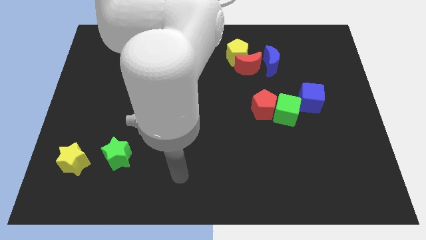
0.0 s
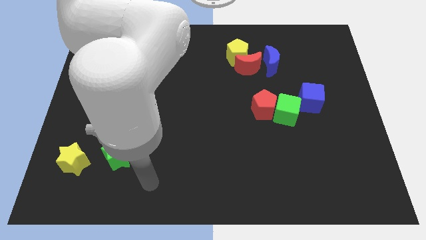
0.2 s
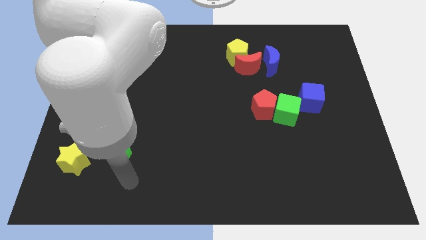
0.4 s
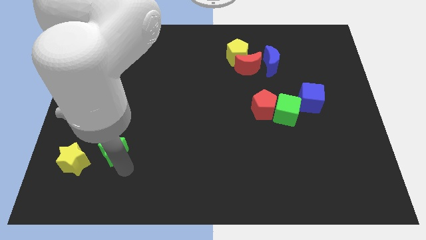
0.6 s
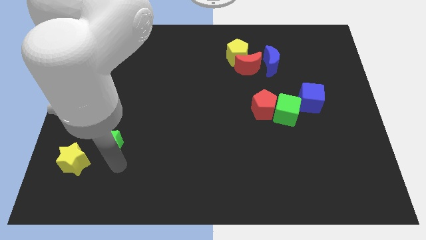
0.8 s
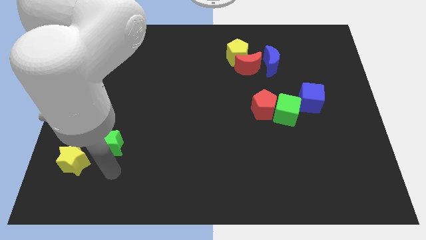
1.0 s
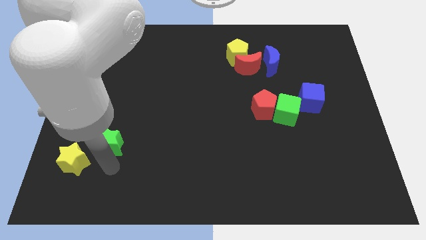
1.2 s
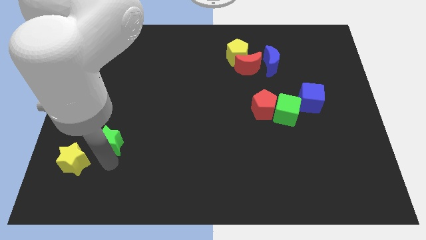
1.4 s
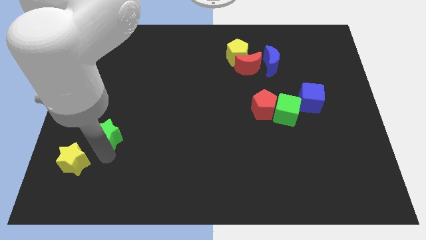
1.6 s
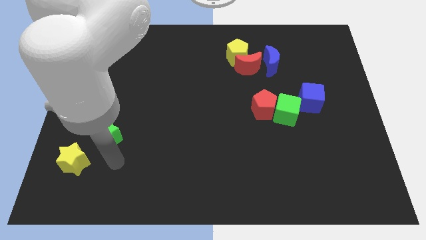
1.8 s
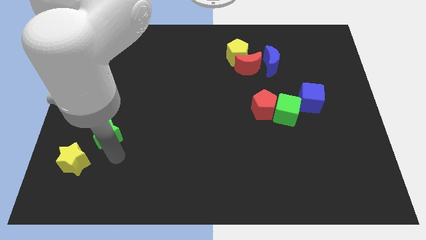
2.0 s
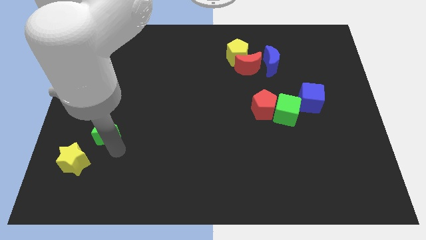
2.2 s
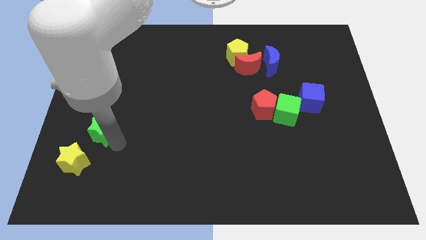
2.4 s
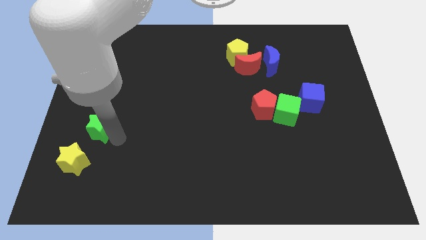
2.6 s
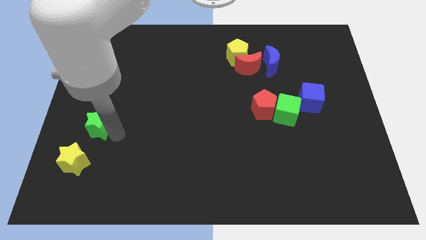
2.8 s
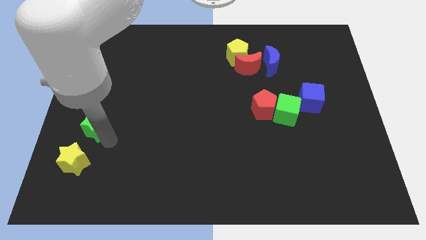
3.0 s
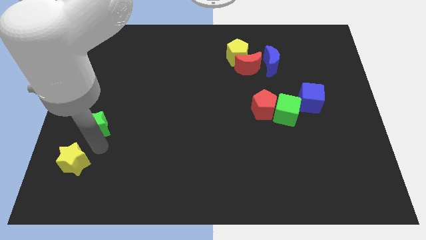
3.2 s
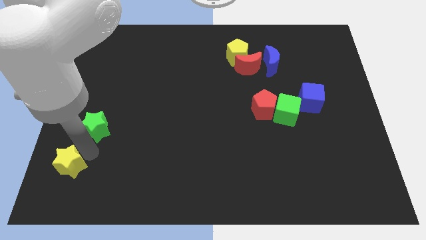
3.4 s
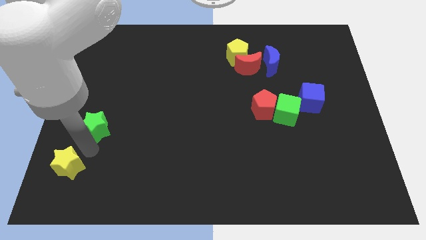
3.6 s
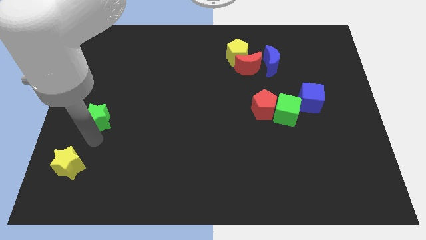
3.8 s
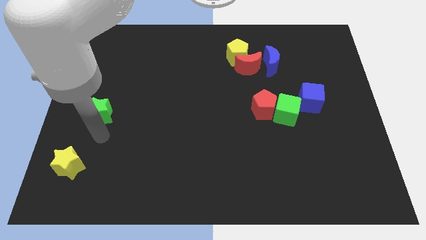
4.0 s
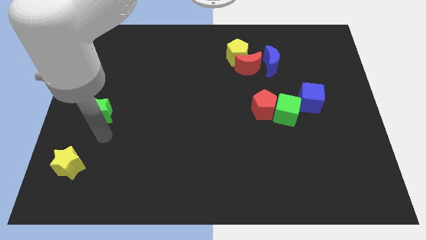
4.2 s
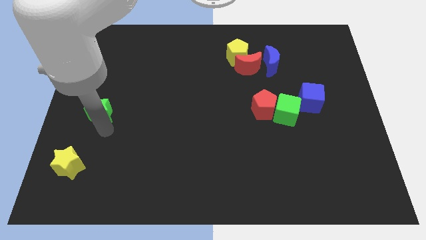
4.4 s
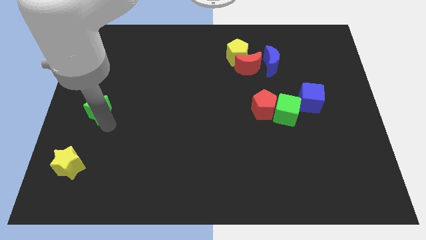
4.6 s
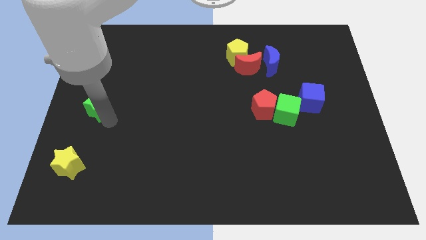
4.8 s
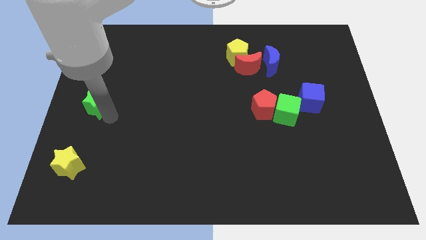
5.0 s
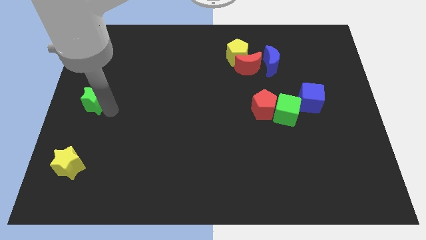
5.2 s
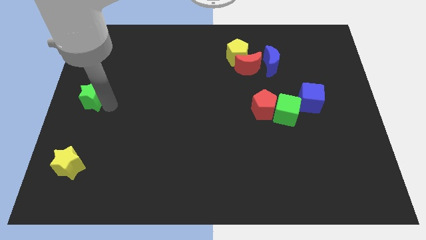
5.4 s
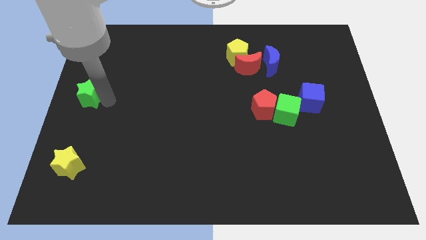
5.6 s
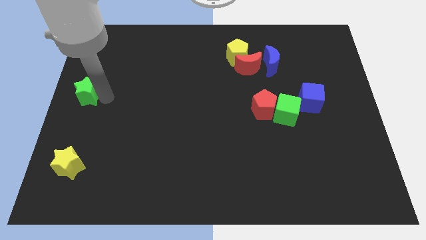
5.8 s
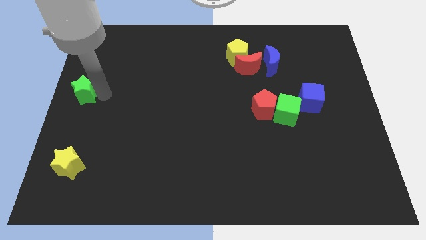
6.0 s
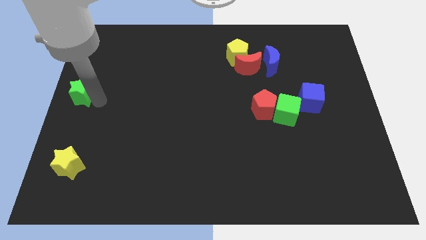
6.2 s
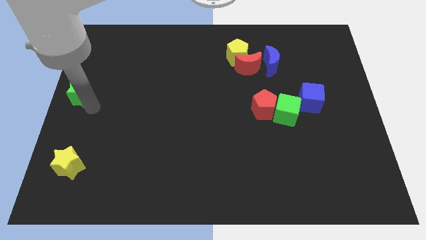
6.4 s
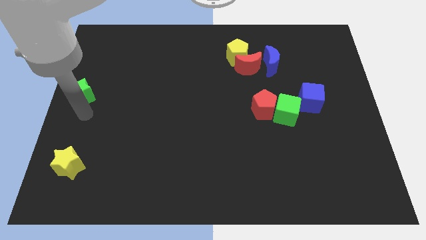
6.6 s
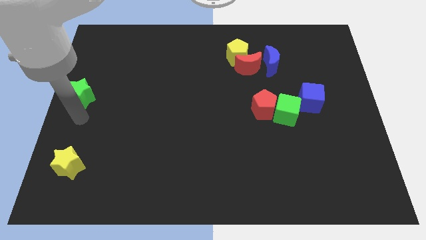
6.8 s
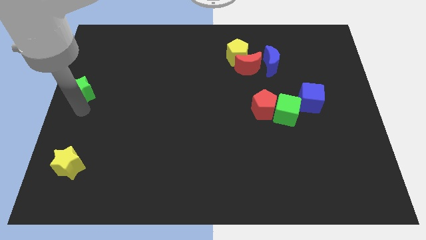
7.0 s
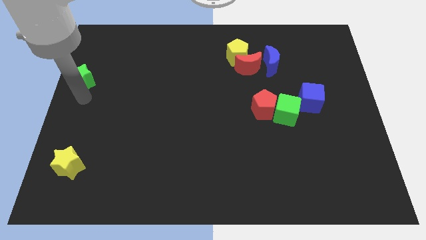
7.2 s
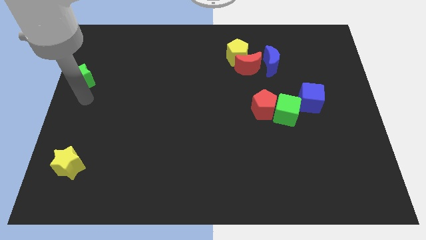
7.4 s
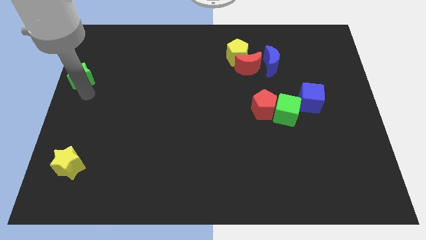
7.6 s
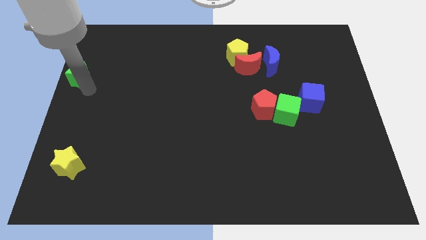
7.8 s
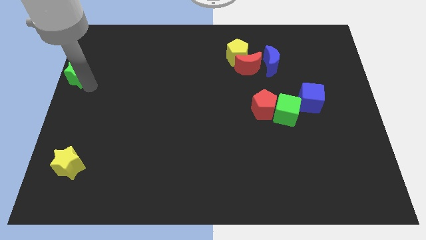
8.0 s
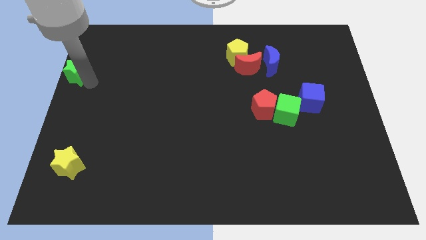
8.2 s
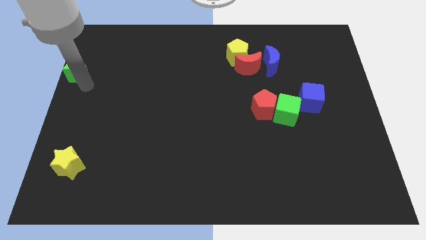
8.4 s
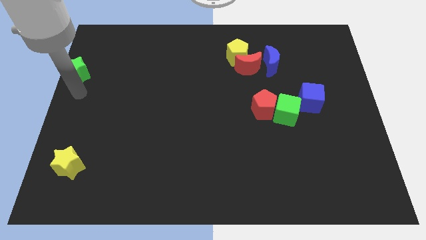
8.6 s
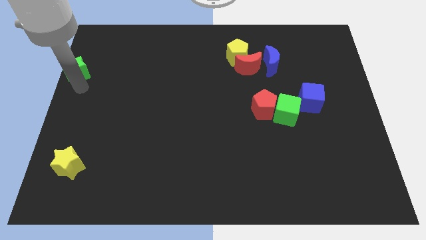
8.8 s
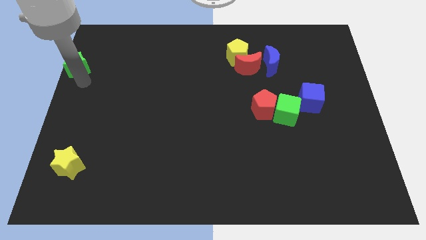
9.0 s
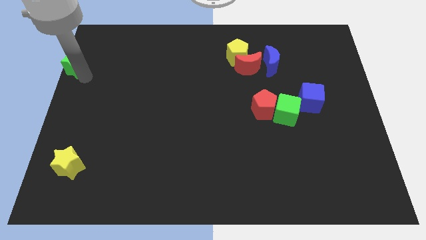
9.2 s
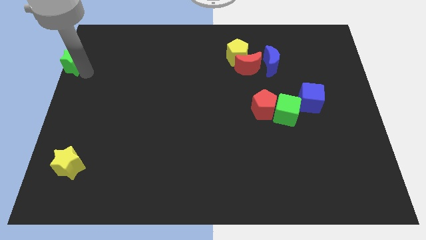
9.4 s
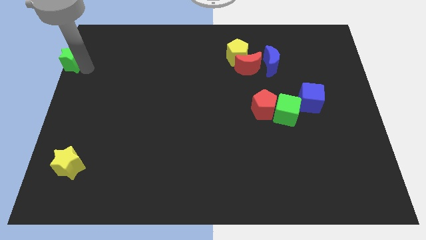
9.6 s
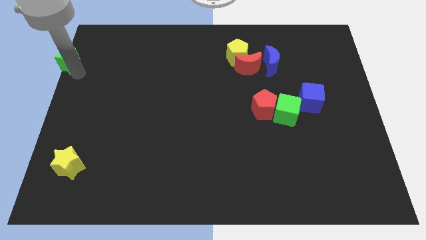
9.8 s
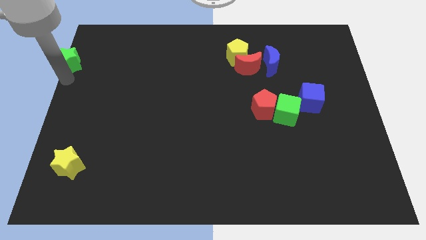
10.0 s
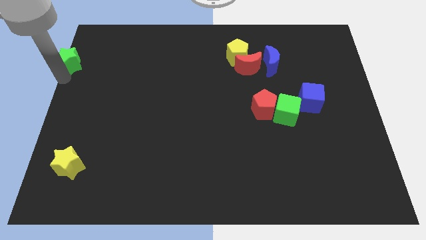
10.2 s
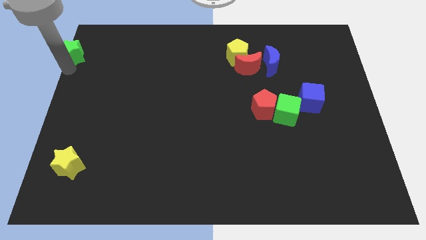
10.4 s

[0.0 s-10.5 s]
move the green star to the top left

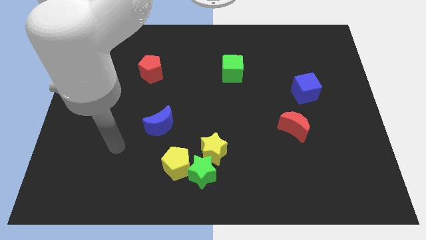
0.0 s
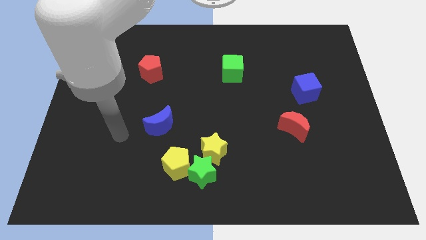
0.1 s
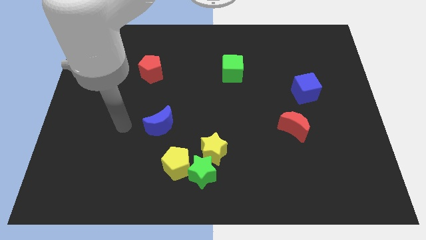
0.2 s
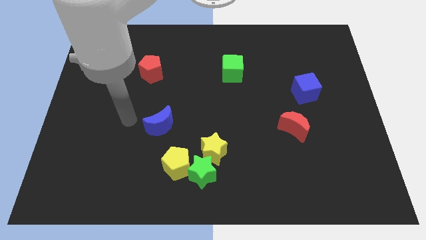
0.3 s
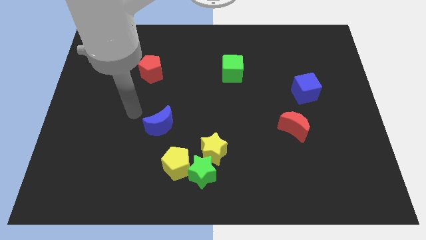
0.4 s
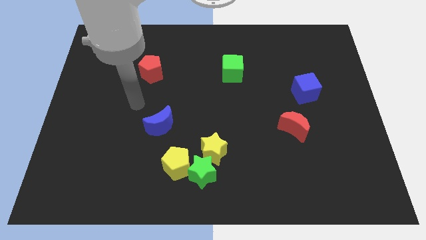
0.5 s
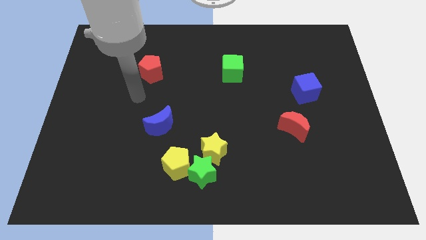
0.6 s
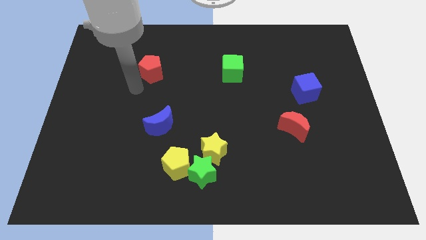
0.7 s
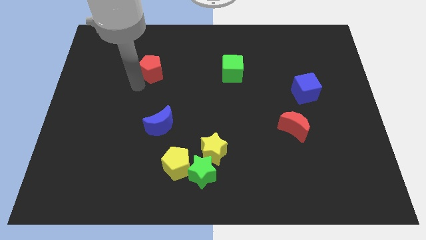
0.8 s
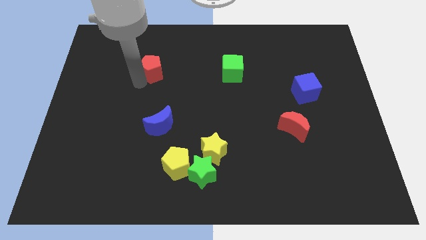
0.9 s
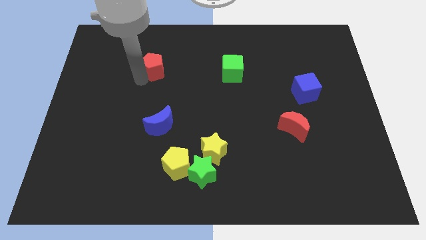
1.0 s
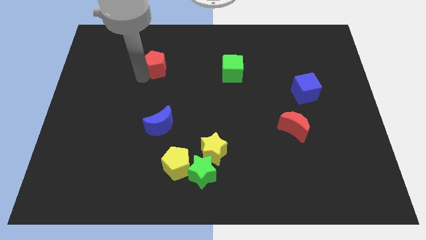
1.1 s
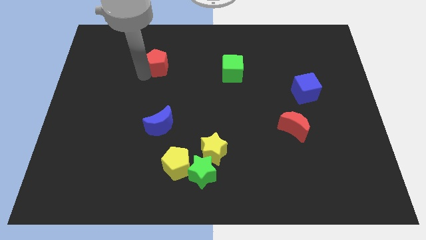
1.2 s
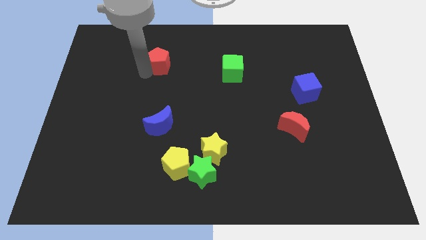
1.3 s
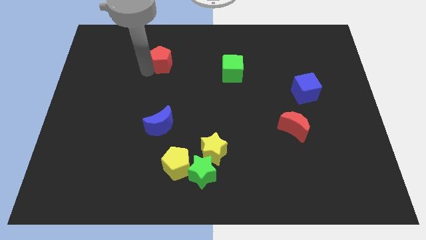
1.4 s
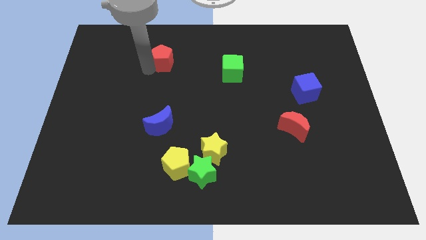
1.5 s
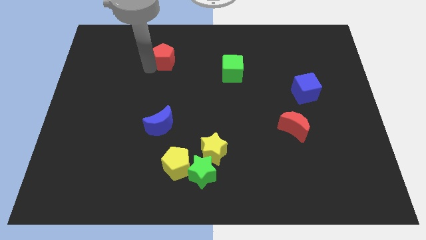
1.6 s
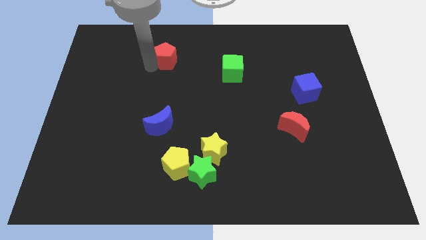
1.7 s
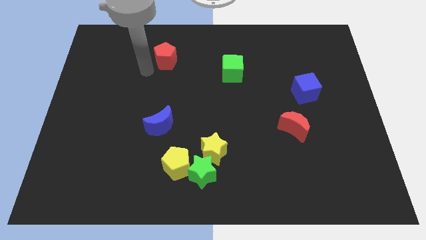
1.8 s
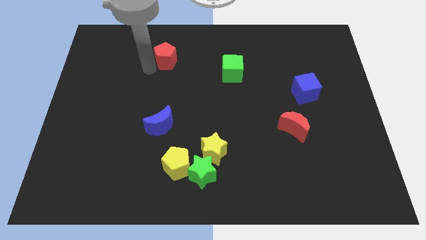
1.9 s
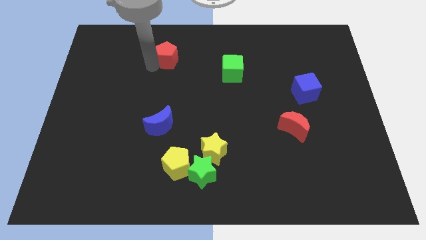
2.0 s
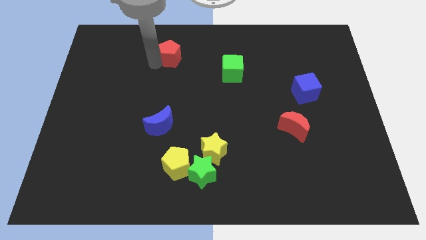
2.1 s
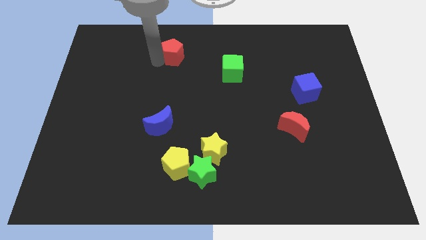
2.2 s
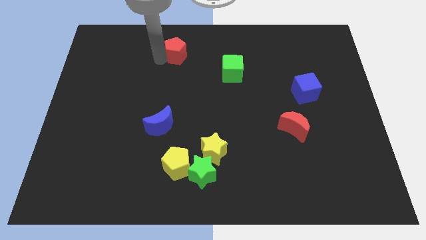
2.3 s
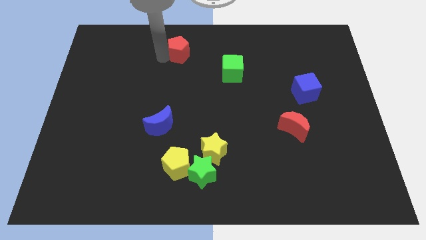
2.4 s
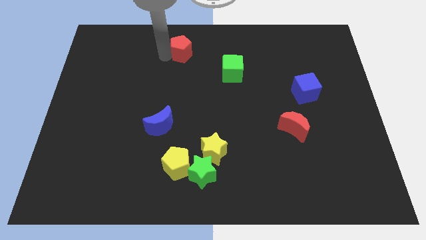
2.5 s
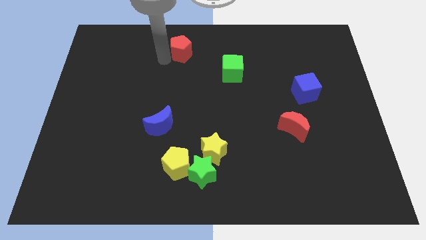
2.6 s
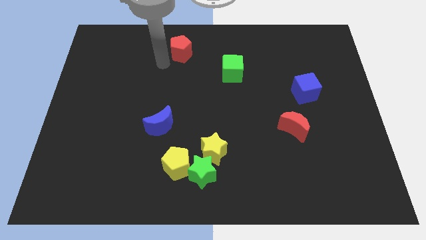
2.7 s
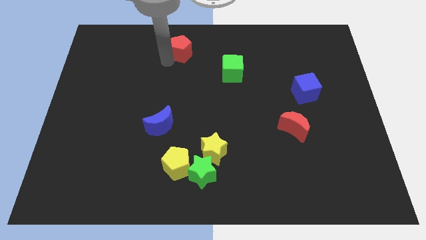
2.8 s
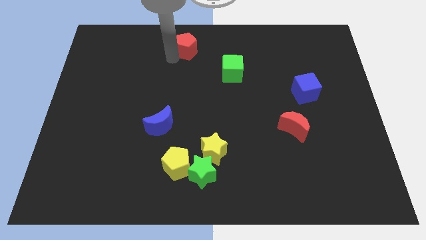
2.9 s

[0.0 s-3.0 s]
move the red pentagon to the top side
